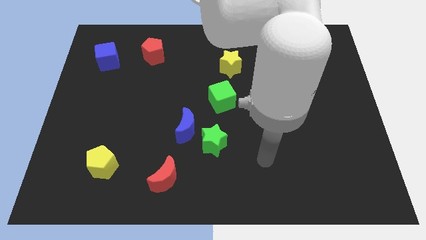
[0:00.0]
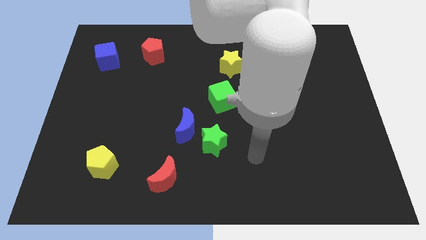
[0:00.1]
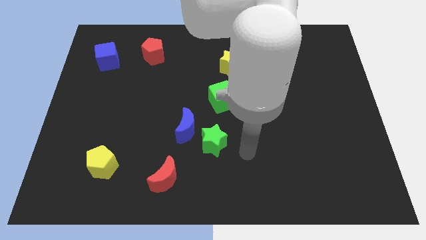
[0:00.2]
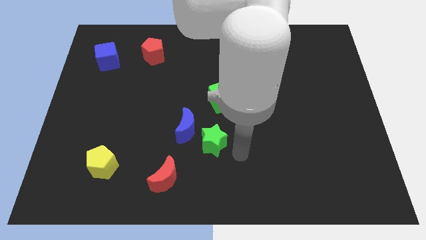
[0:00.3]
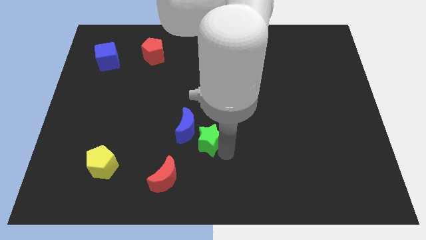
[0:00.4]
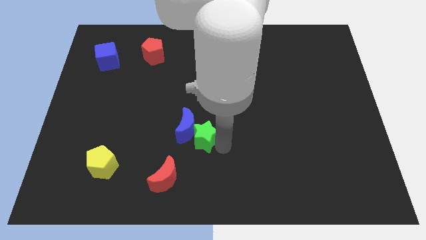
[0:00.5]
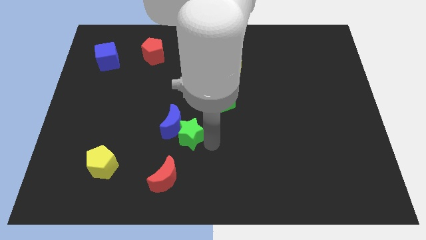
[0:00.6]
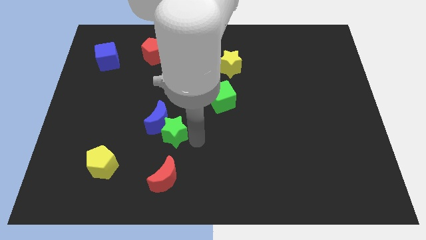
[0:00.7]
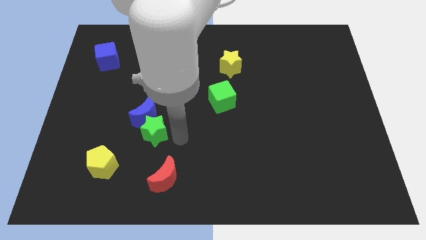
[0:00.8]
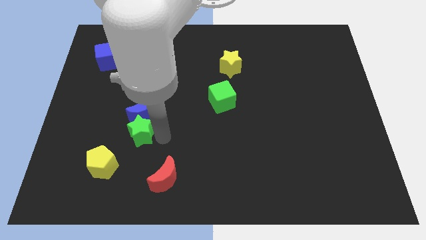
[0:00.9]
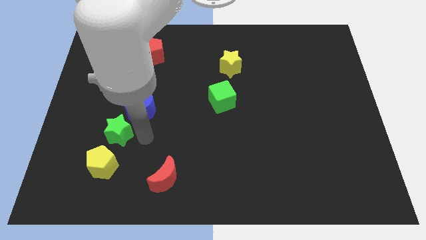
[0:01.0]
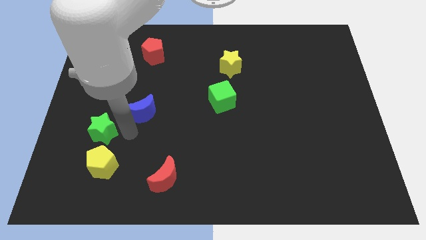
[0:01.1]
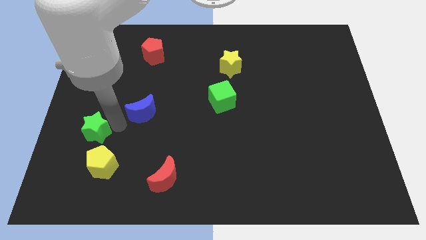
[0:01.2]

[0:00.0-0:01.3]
separate the blue moon from the green star

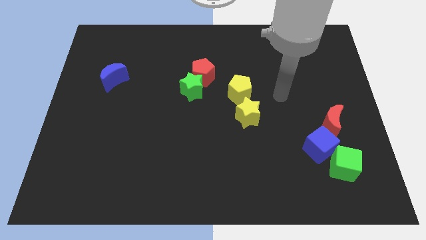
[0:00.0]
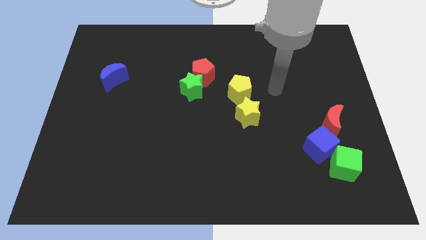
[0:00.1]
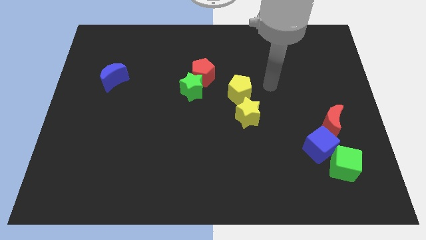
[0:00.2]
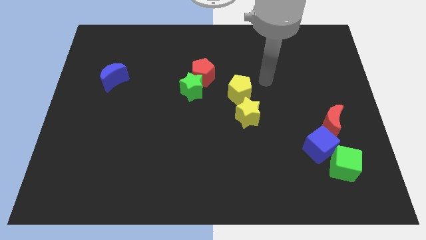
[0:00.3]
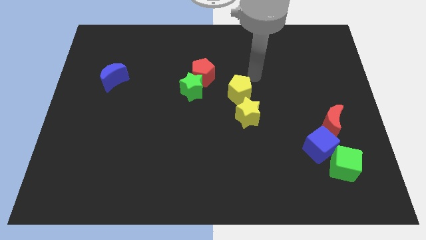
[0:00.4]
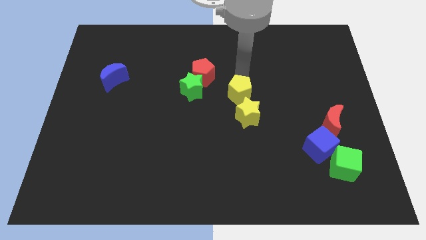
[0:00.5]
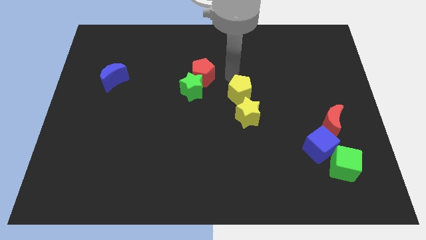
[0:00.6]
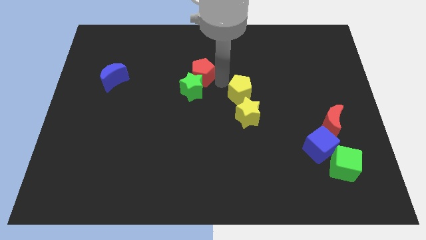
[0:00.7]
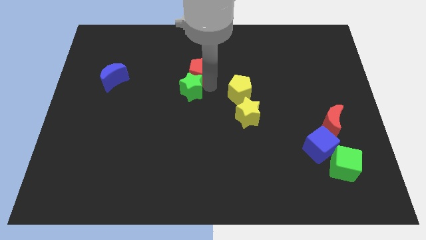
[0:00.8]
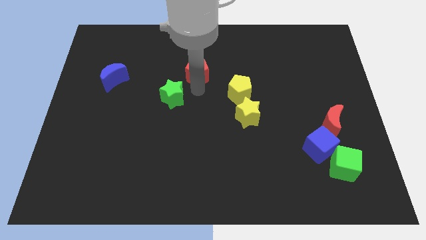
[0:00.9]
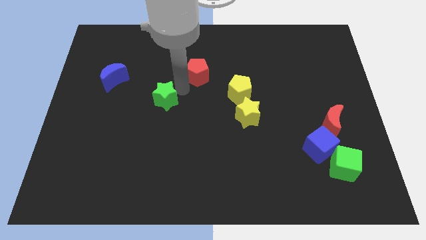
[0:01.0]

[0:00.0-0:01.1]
pull the red pentagon apart from the green star

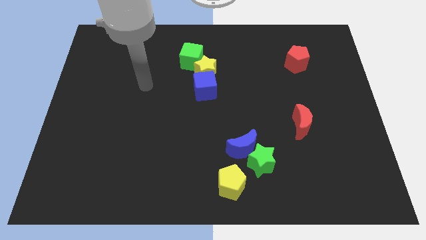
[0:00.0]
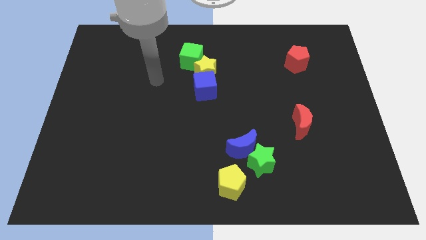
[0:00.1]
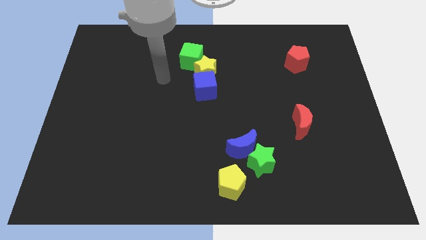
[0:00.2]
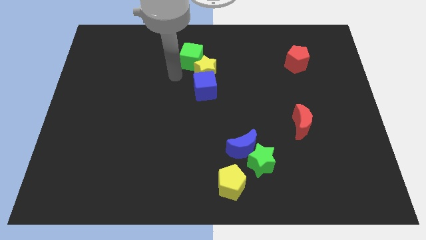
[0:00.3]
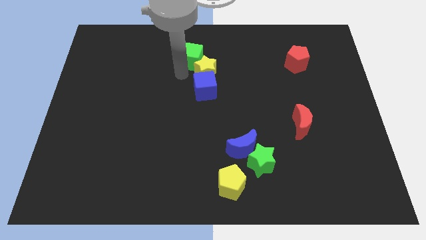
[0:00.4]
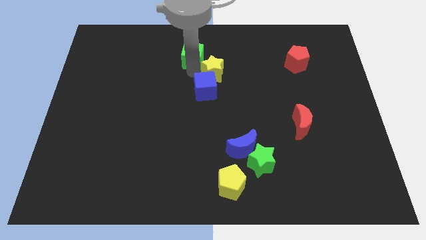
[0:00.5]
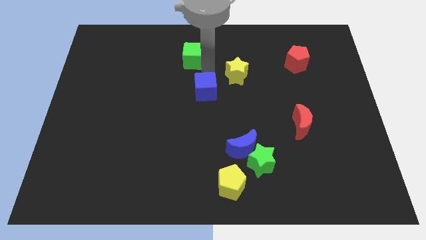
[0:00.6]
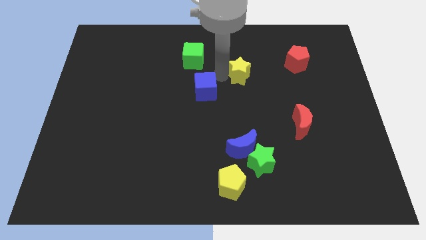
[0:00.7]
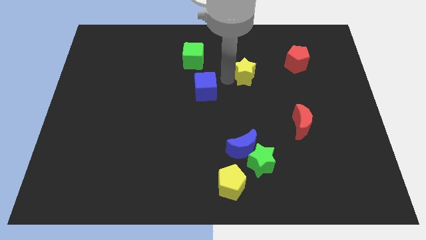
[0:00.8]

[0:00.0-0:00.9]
separate the blue cube from the yellow star

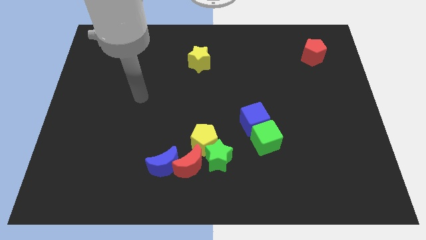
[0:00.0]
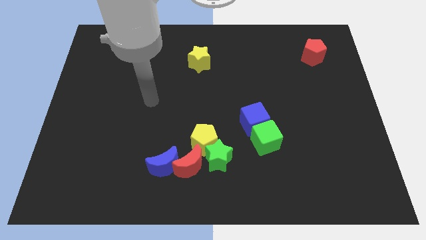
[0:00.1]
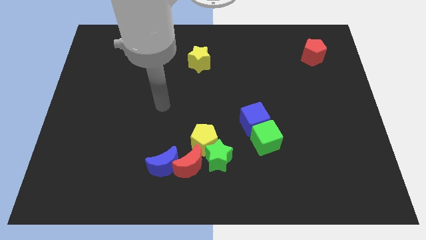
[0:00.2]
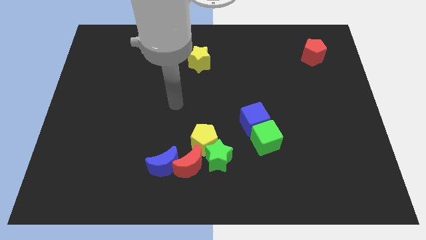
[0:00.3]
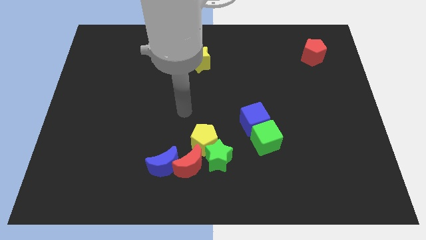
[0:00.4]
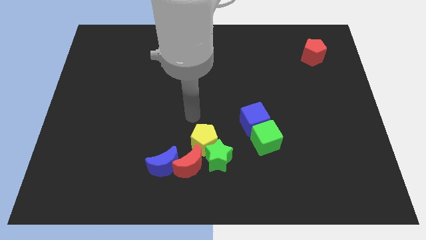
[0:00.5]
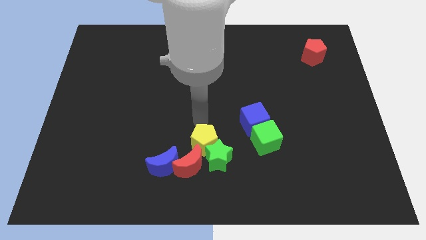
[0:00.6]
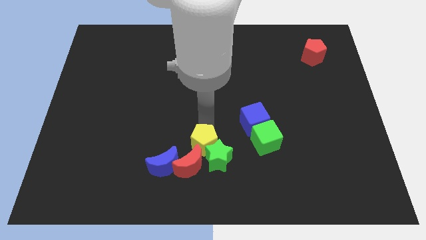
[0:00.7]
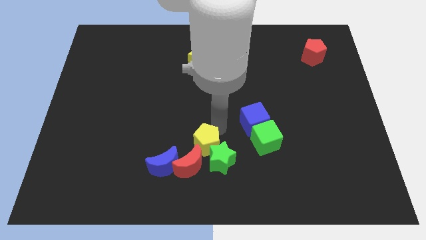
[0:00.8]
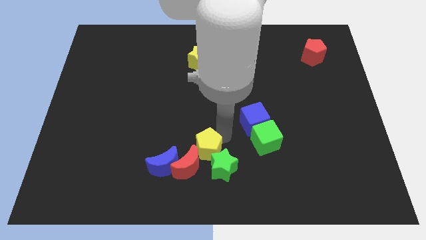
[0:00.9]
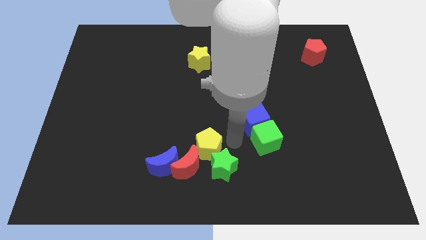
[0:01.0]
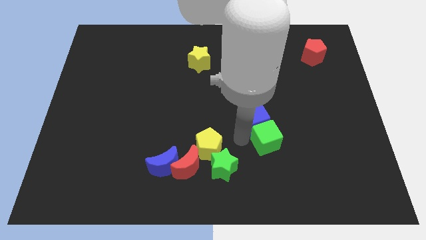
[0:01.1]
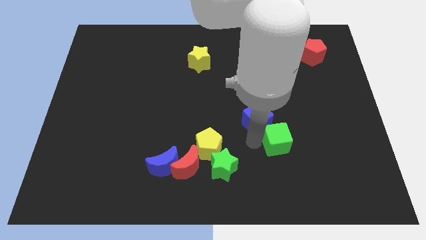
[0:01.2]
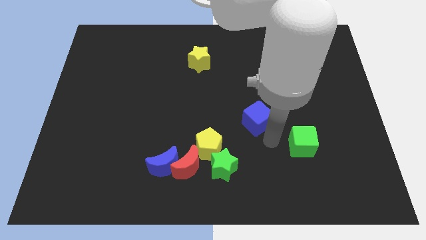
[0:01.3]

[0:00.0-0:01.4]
separate the blue cube from the green cube

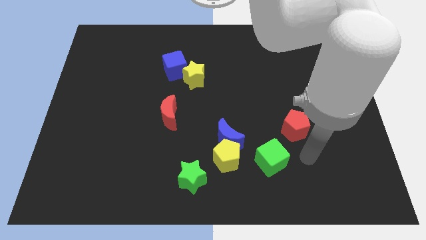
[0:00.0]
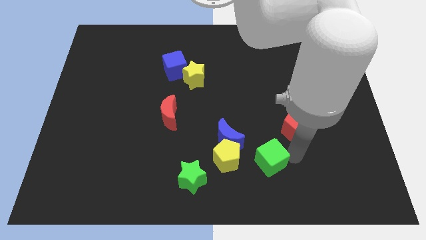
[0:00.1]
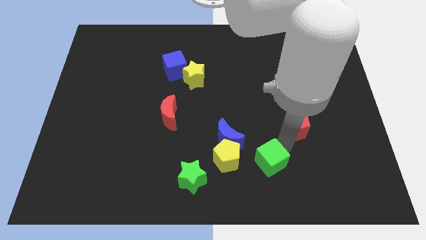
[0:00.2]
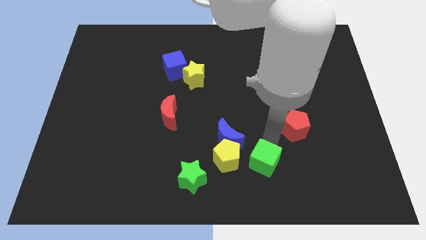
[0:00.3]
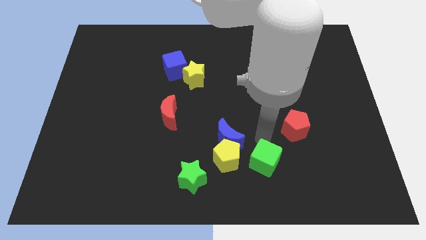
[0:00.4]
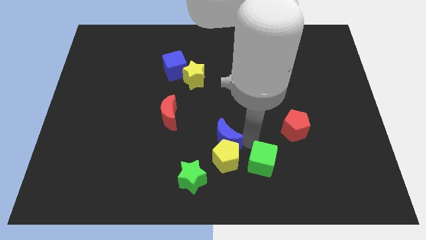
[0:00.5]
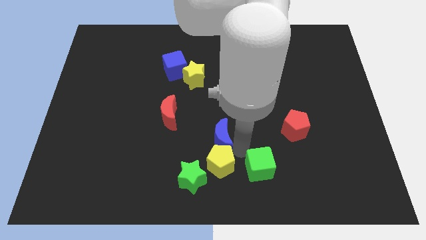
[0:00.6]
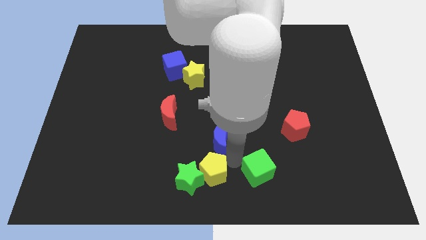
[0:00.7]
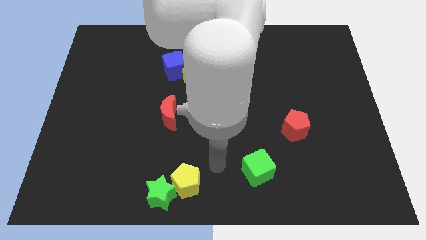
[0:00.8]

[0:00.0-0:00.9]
pull the blue moon apart from the yellow pentagon

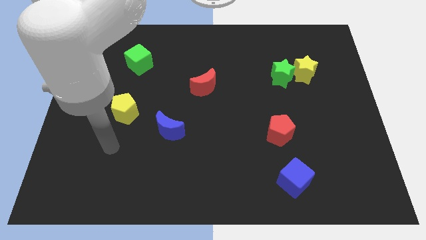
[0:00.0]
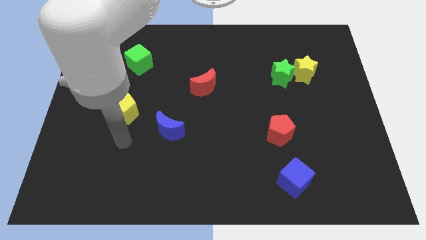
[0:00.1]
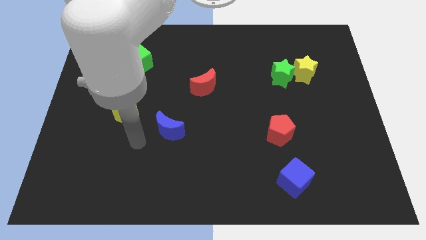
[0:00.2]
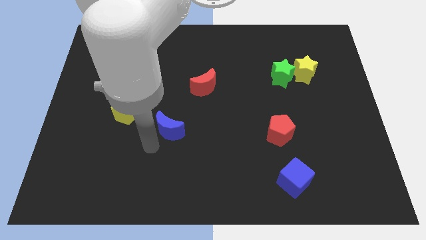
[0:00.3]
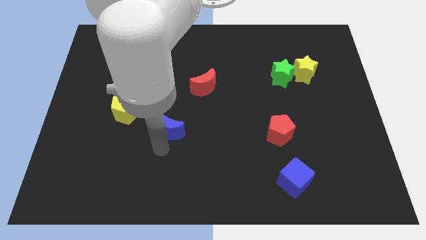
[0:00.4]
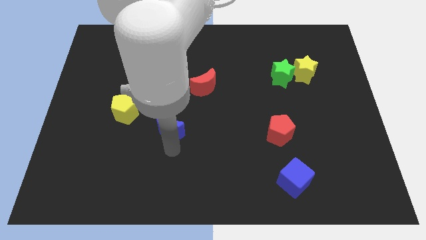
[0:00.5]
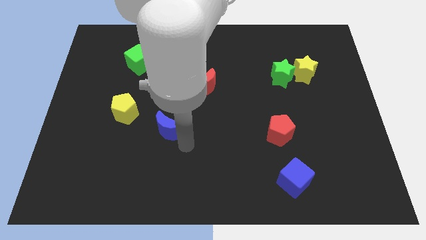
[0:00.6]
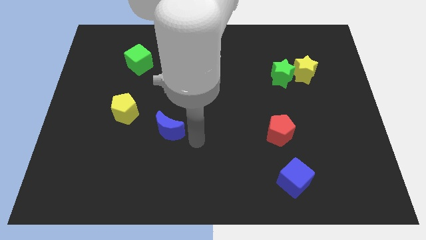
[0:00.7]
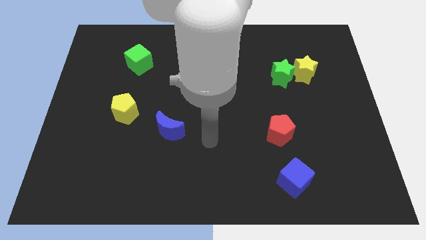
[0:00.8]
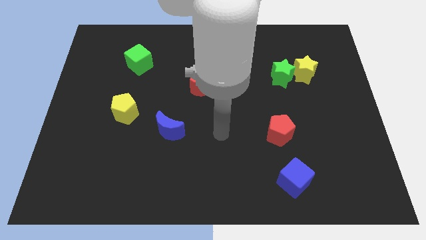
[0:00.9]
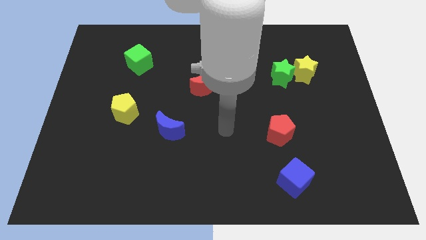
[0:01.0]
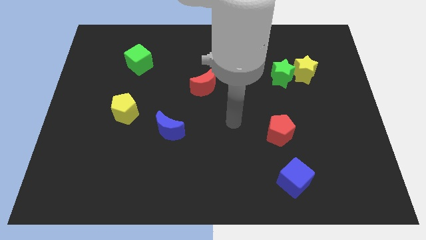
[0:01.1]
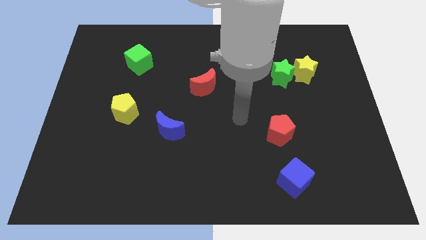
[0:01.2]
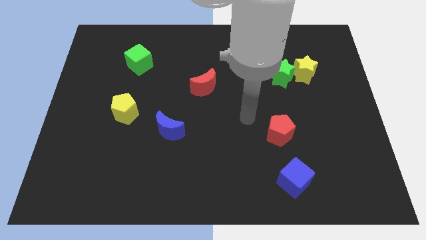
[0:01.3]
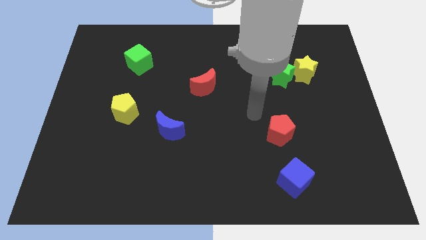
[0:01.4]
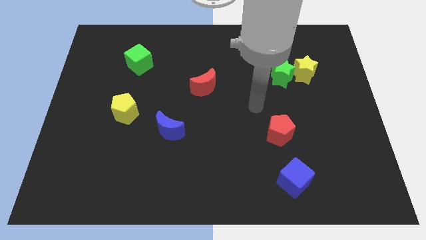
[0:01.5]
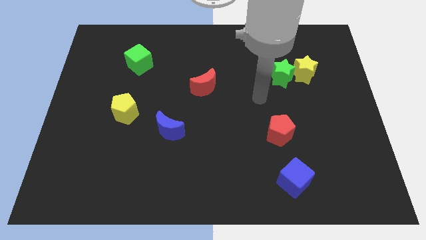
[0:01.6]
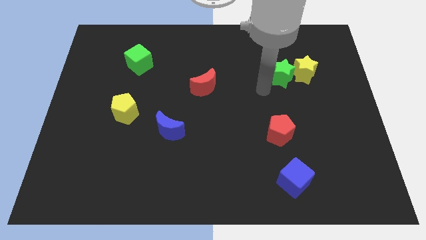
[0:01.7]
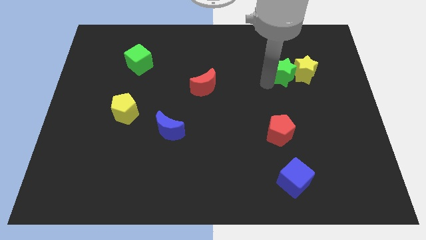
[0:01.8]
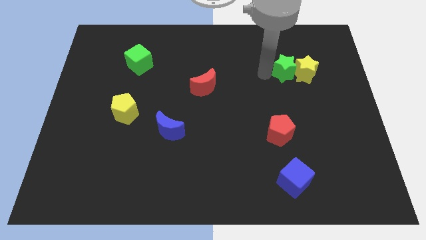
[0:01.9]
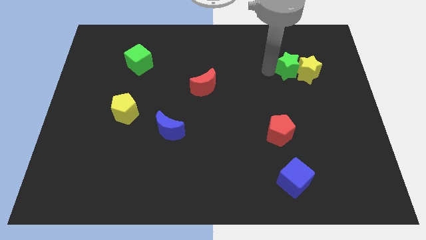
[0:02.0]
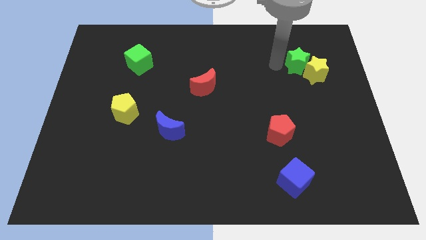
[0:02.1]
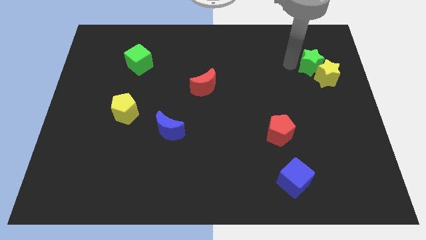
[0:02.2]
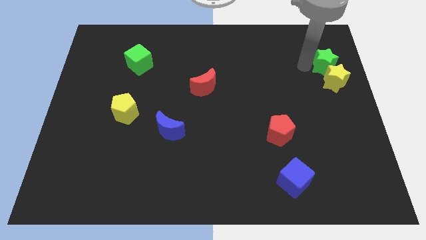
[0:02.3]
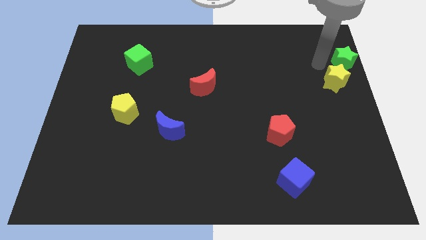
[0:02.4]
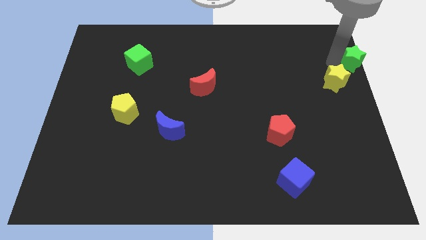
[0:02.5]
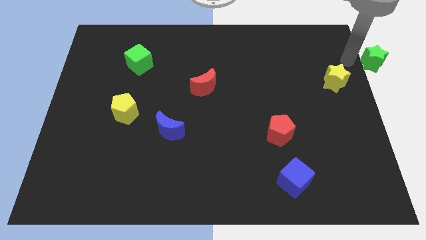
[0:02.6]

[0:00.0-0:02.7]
move the green star away from the yellow star

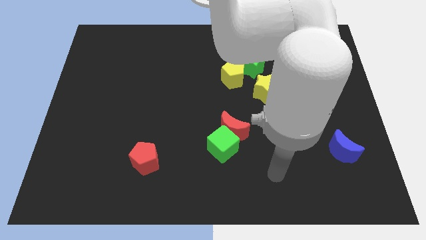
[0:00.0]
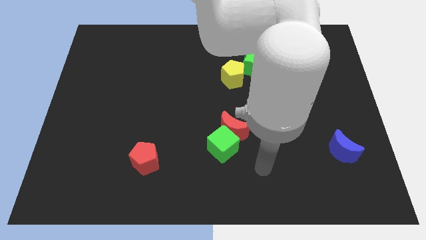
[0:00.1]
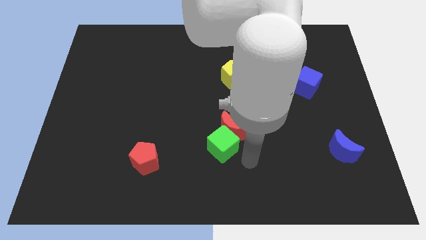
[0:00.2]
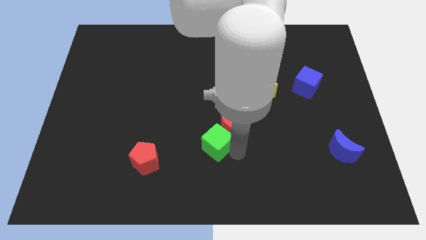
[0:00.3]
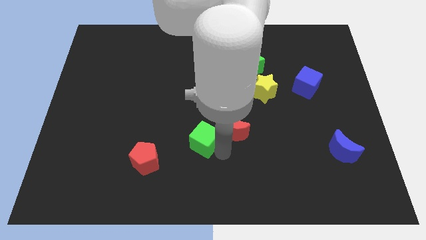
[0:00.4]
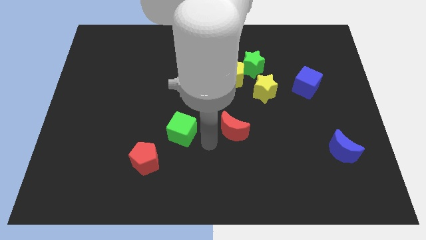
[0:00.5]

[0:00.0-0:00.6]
pull the red moon apart from the green cube

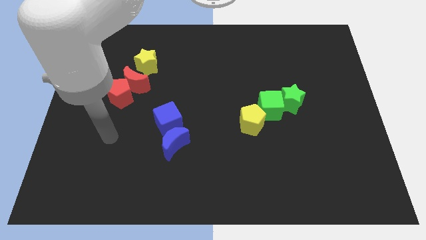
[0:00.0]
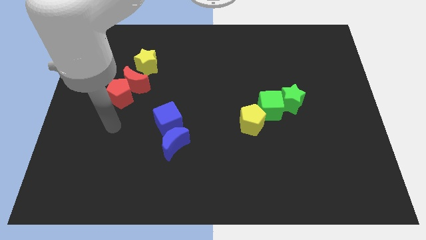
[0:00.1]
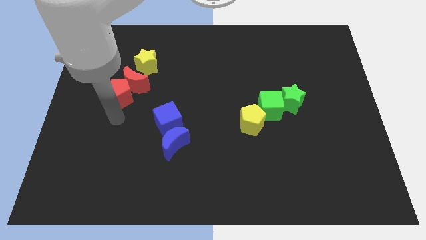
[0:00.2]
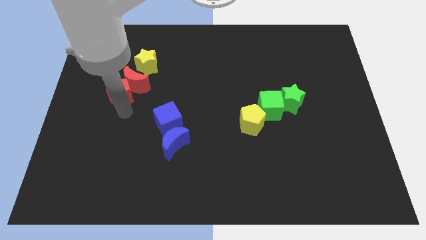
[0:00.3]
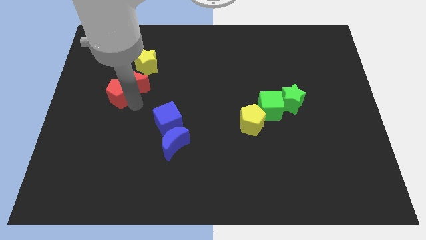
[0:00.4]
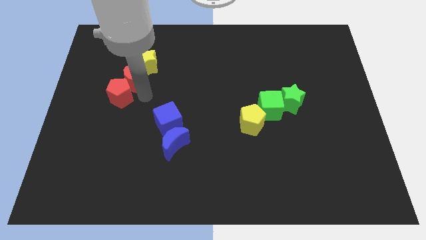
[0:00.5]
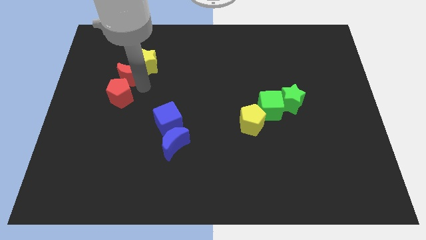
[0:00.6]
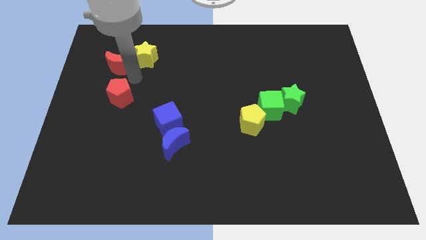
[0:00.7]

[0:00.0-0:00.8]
move the red pentagon away from the red moon
